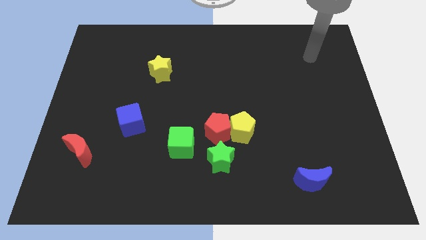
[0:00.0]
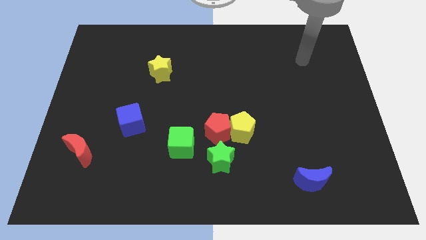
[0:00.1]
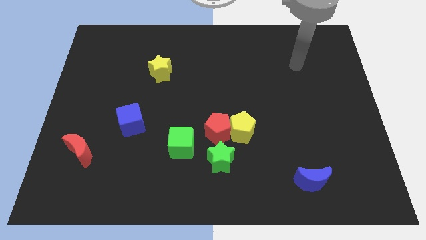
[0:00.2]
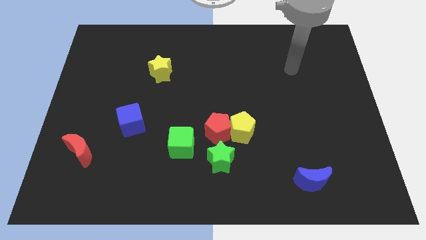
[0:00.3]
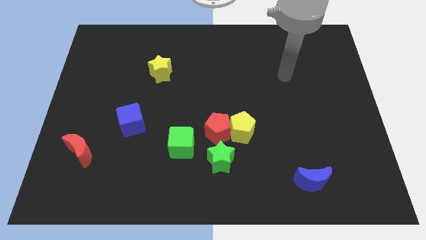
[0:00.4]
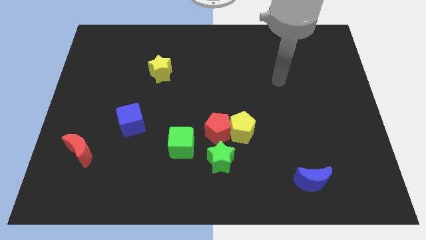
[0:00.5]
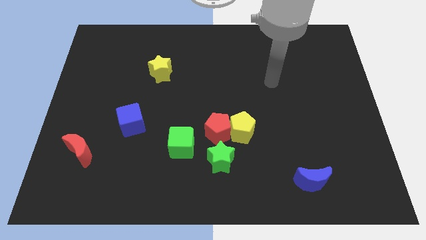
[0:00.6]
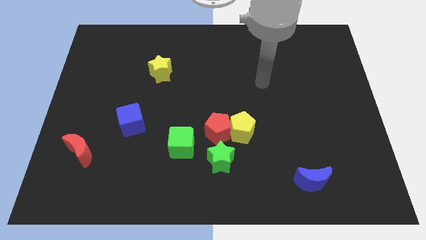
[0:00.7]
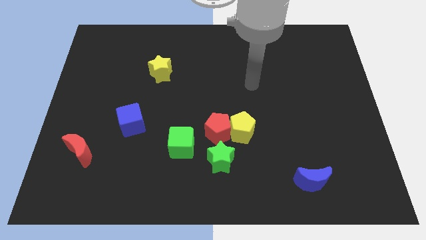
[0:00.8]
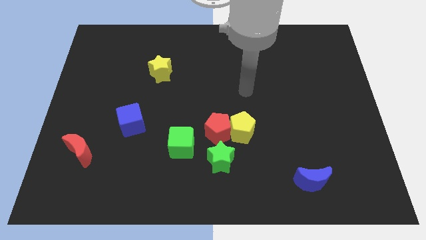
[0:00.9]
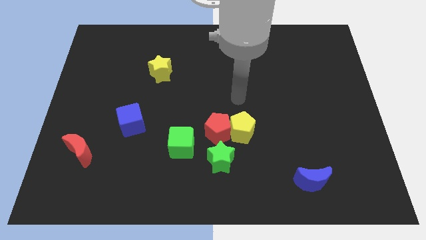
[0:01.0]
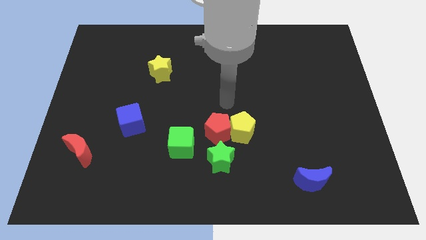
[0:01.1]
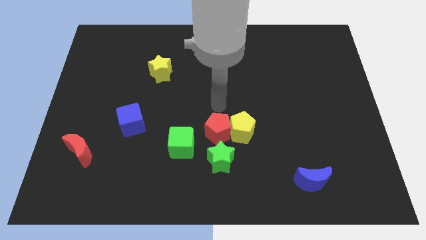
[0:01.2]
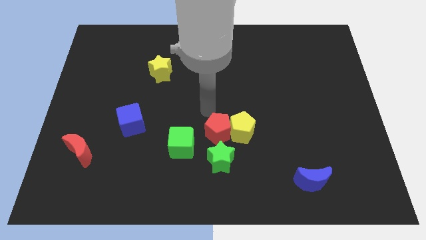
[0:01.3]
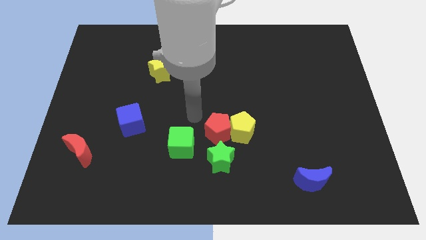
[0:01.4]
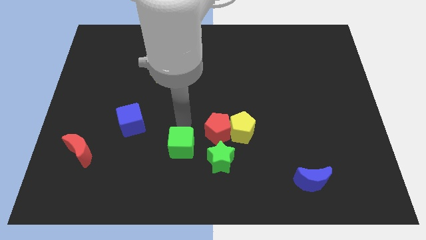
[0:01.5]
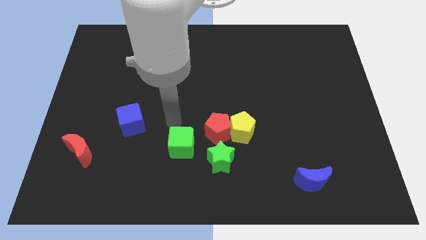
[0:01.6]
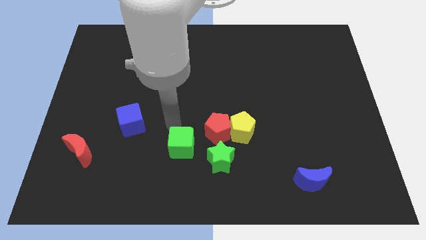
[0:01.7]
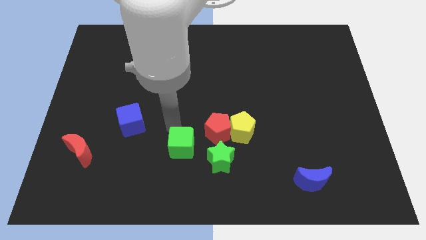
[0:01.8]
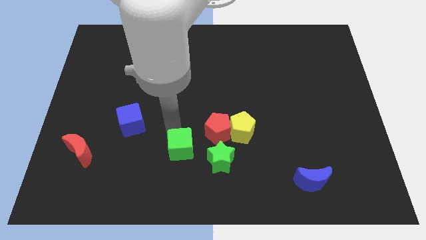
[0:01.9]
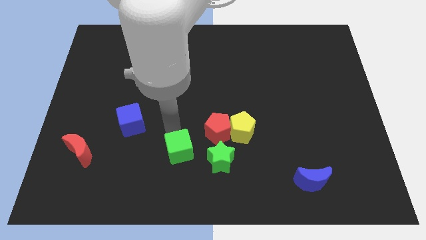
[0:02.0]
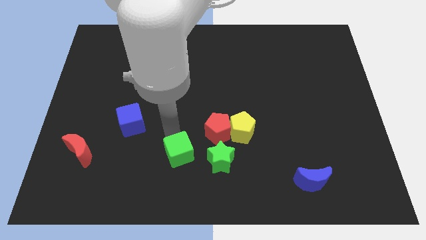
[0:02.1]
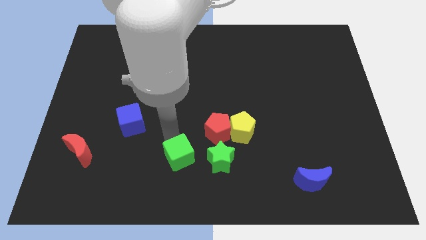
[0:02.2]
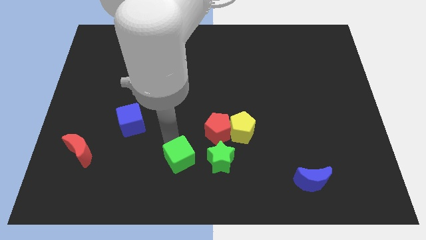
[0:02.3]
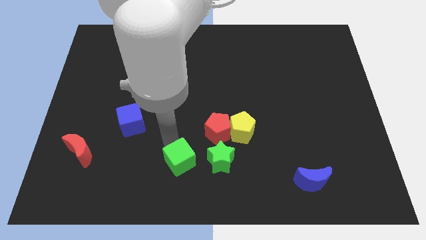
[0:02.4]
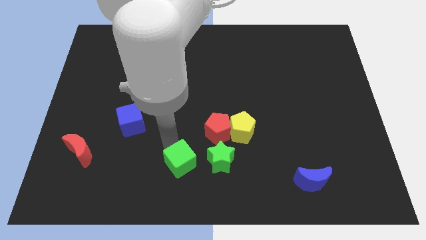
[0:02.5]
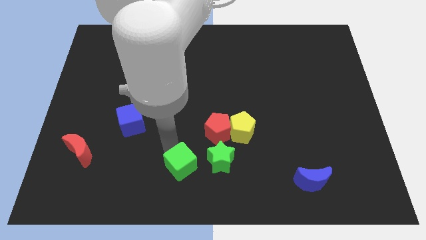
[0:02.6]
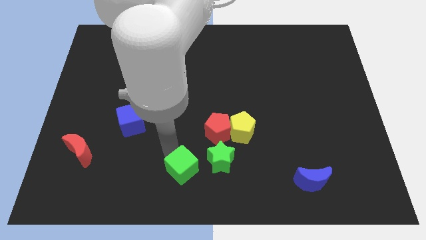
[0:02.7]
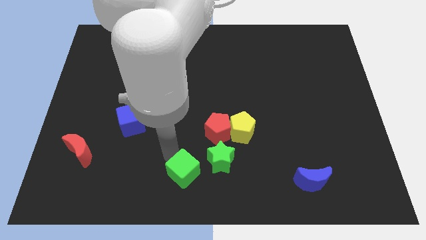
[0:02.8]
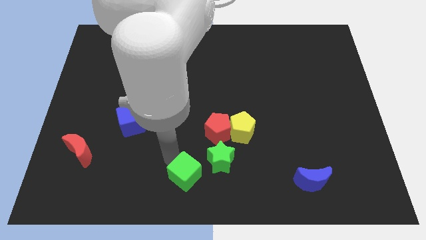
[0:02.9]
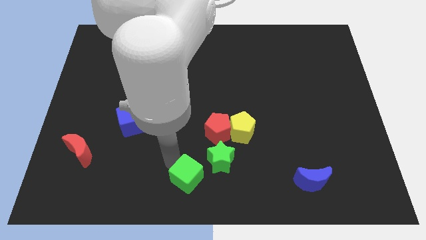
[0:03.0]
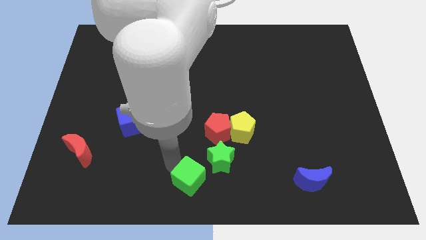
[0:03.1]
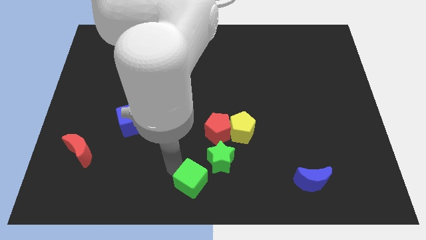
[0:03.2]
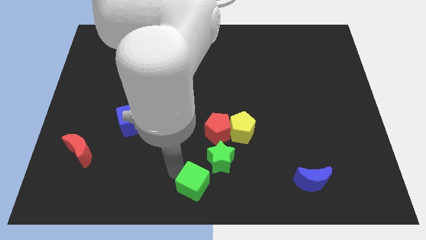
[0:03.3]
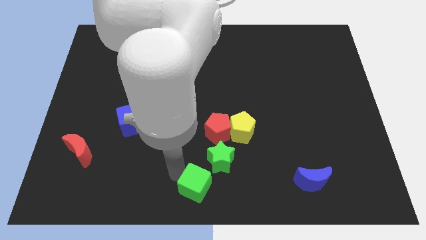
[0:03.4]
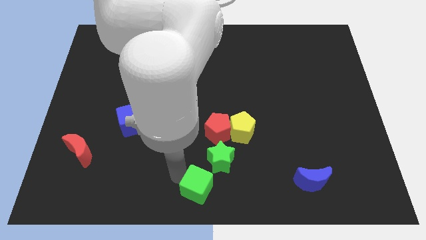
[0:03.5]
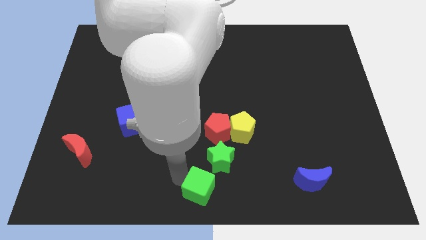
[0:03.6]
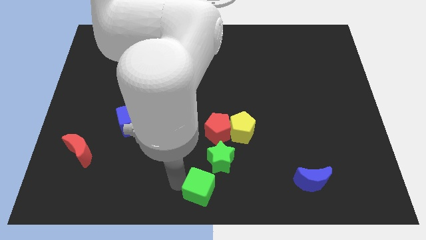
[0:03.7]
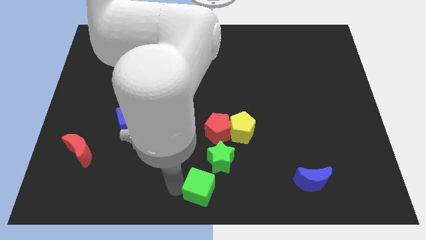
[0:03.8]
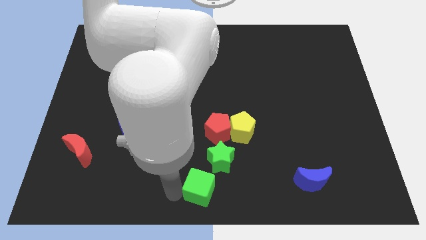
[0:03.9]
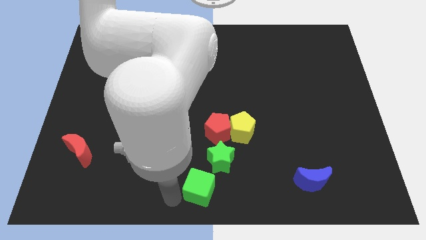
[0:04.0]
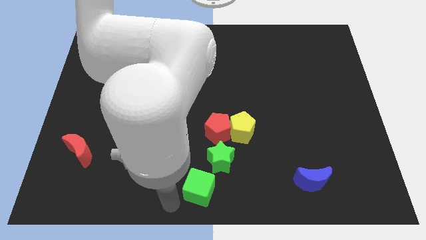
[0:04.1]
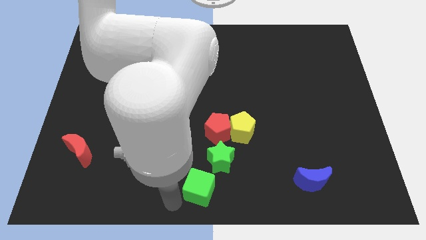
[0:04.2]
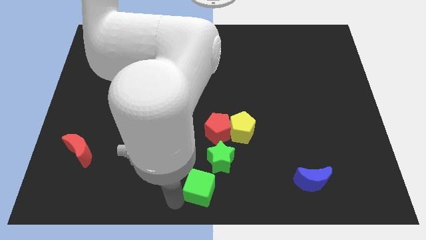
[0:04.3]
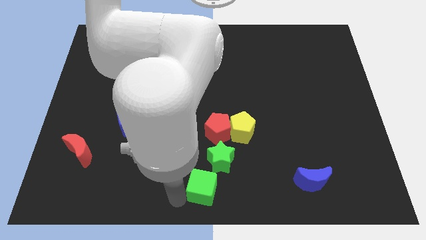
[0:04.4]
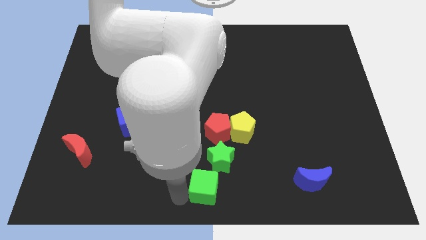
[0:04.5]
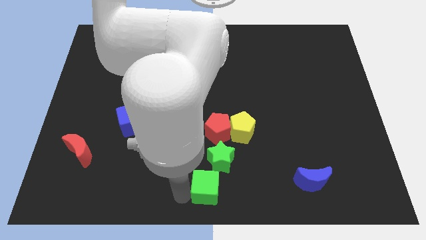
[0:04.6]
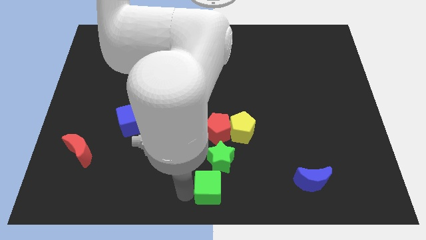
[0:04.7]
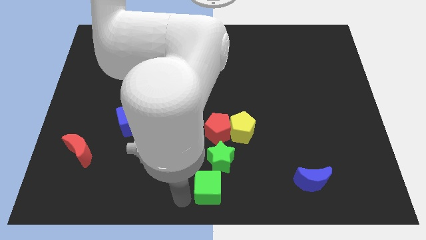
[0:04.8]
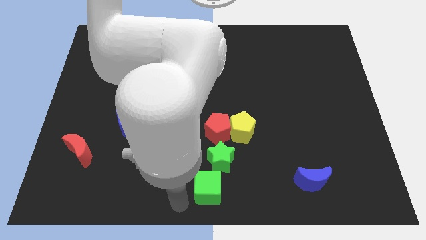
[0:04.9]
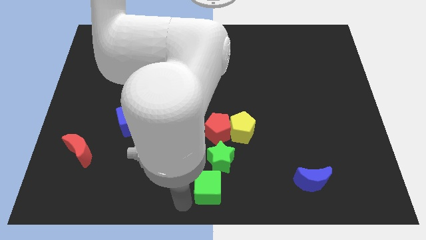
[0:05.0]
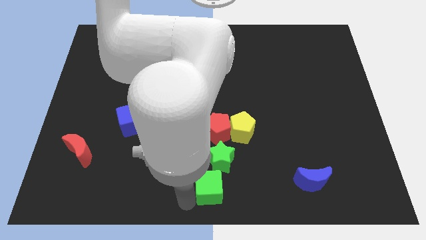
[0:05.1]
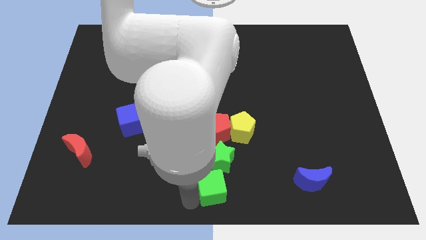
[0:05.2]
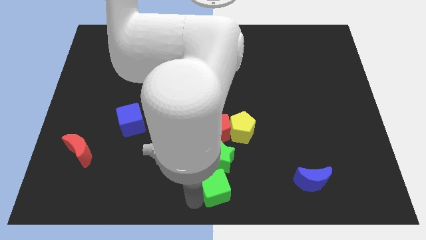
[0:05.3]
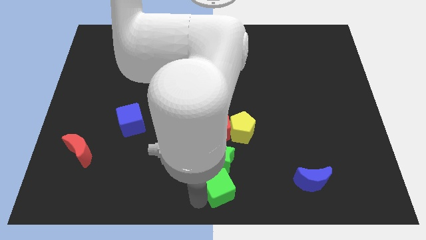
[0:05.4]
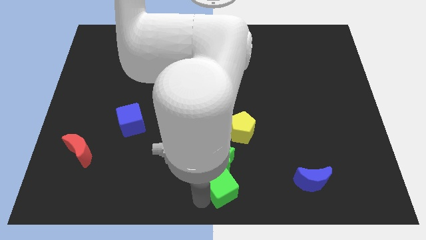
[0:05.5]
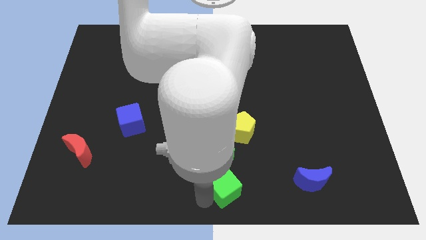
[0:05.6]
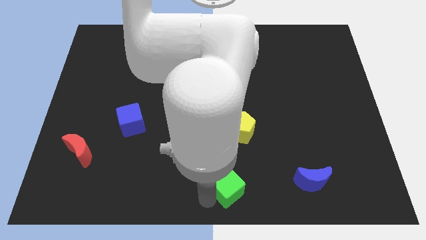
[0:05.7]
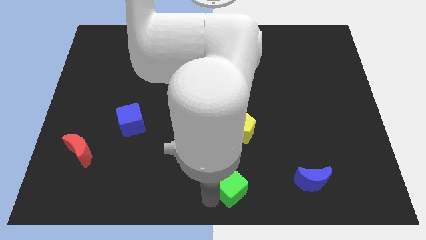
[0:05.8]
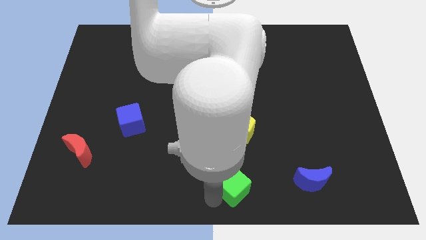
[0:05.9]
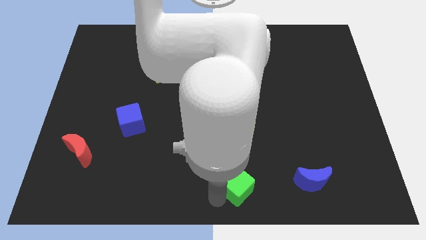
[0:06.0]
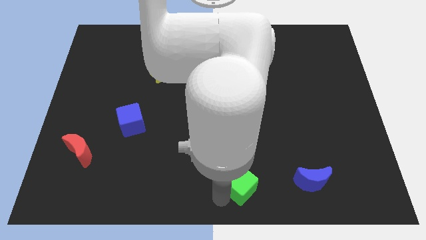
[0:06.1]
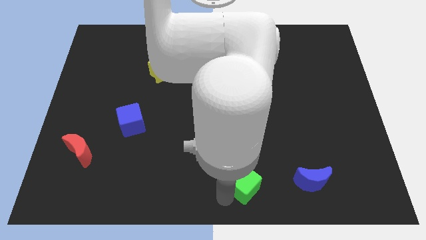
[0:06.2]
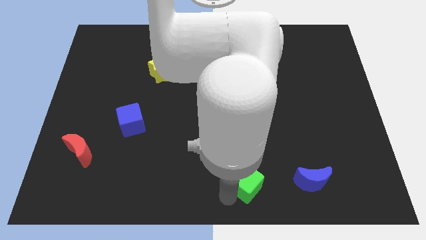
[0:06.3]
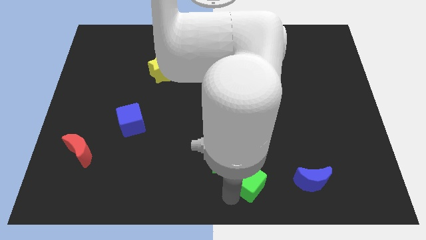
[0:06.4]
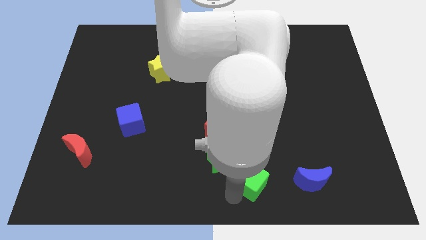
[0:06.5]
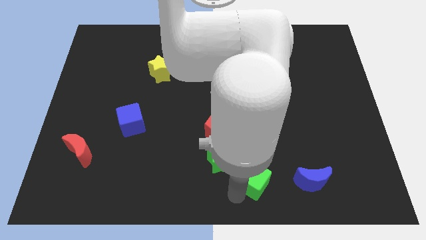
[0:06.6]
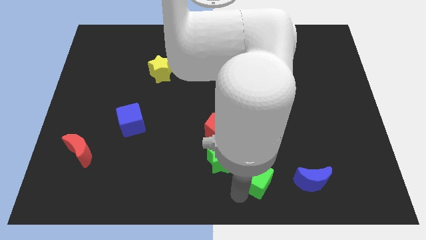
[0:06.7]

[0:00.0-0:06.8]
slide the green cube just right of the green star

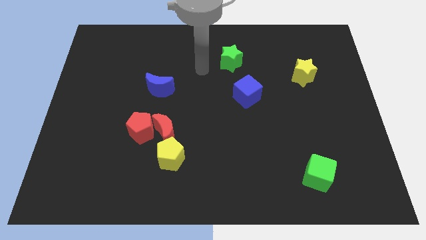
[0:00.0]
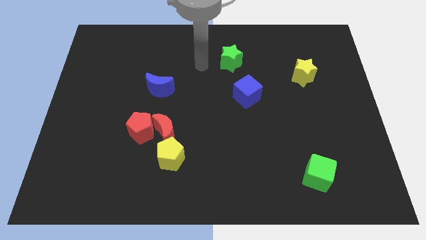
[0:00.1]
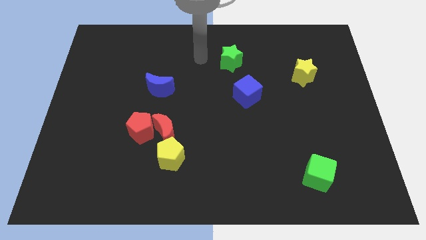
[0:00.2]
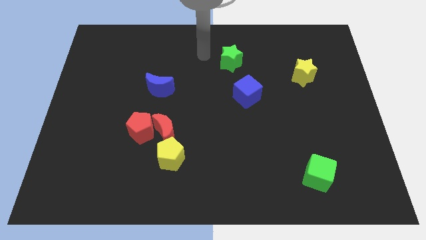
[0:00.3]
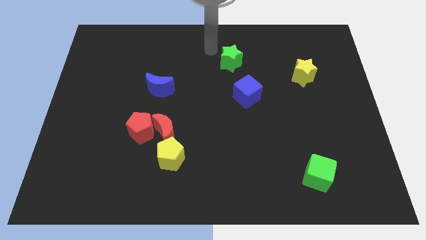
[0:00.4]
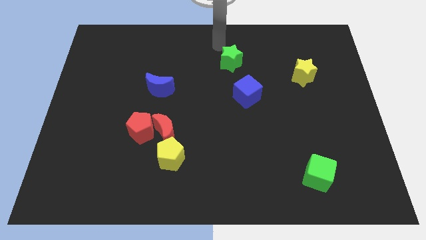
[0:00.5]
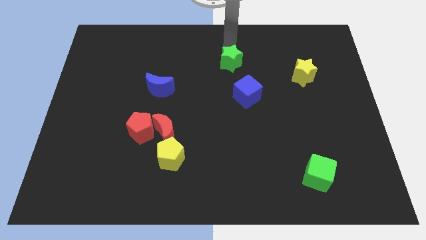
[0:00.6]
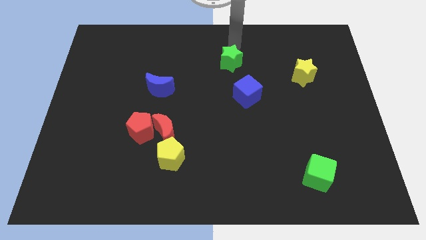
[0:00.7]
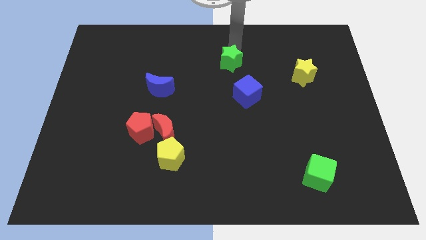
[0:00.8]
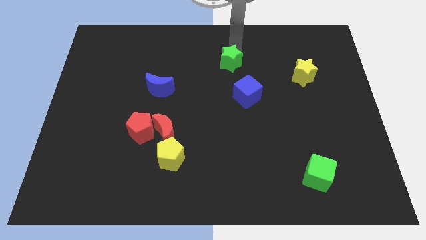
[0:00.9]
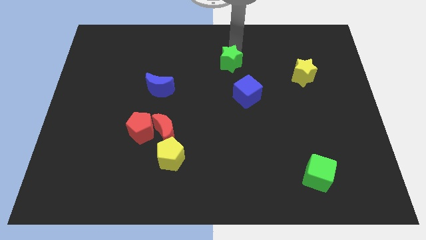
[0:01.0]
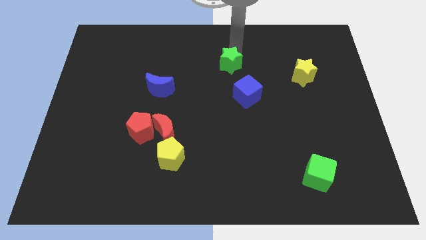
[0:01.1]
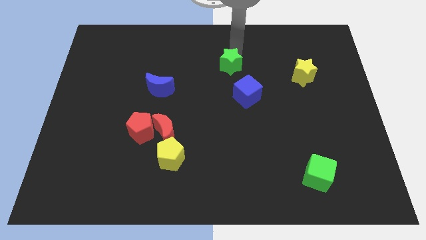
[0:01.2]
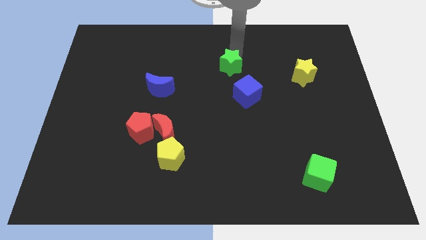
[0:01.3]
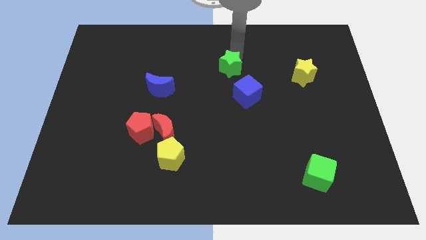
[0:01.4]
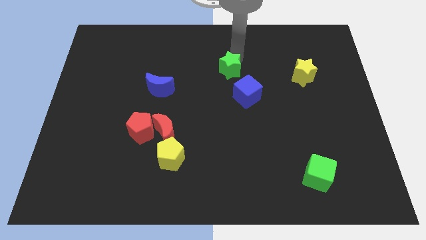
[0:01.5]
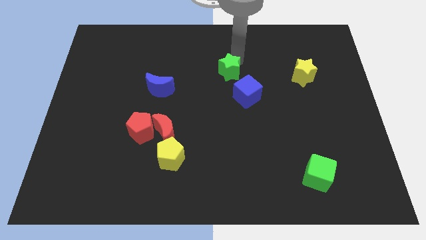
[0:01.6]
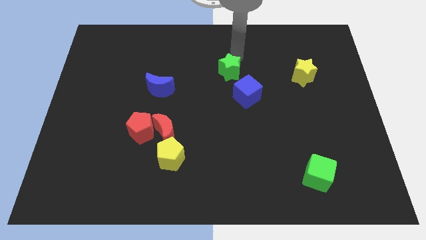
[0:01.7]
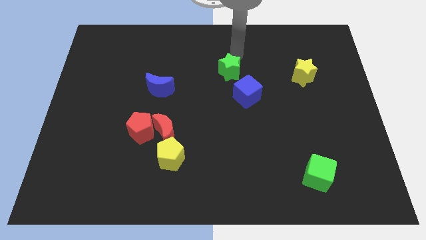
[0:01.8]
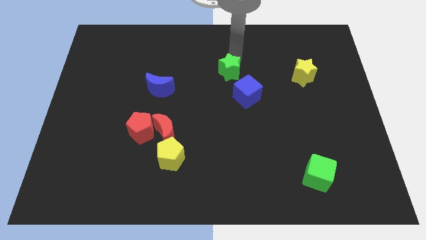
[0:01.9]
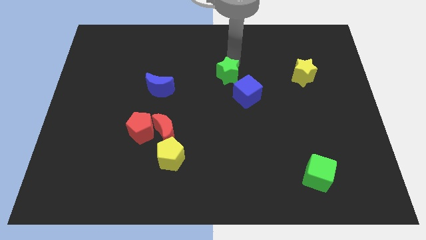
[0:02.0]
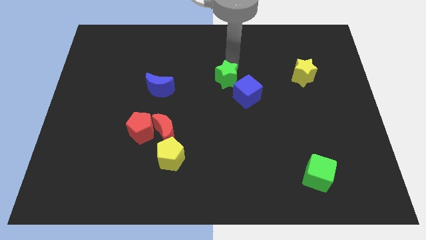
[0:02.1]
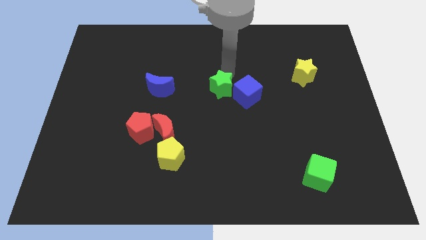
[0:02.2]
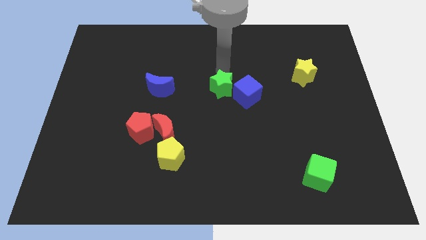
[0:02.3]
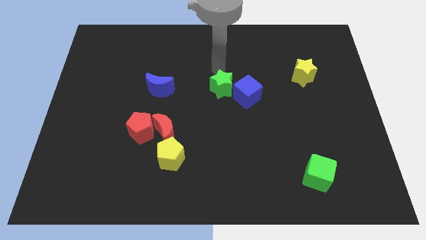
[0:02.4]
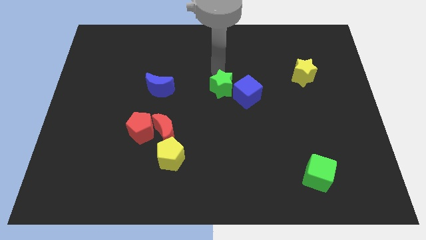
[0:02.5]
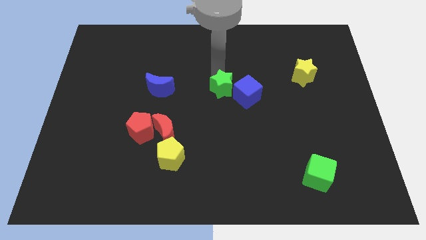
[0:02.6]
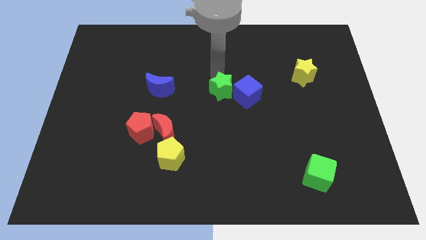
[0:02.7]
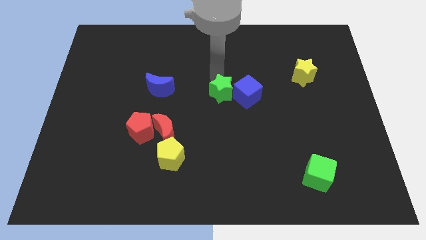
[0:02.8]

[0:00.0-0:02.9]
slide the green star diagonally down and to the left of the blue cube
